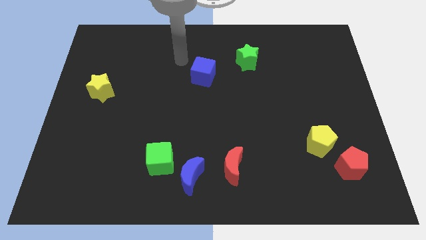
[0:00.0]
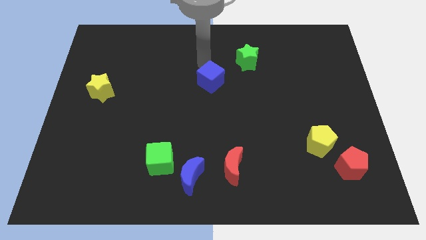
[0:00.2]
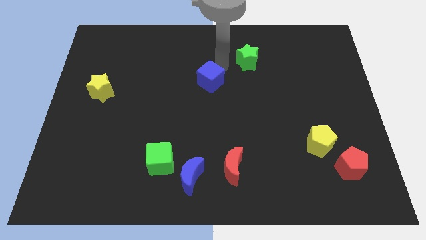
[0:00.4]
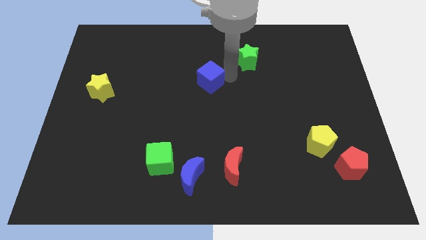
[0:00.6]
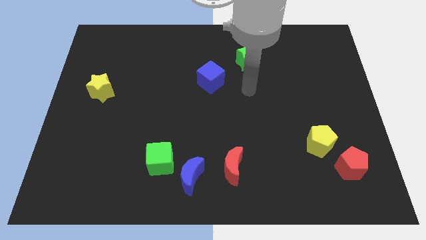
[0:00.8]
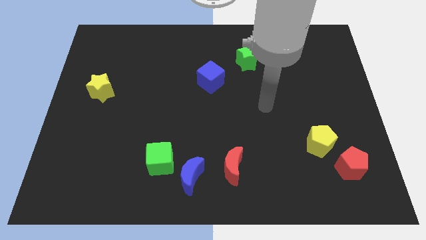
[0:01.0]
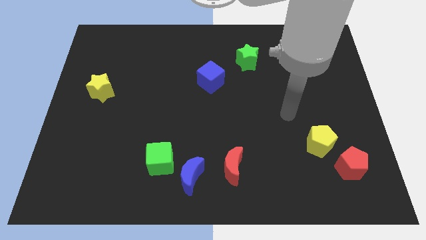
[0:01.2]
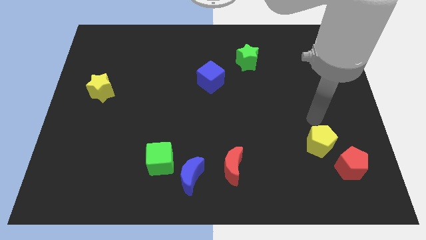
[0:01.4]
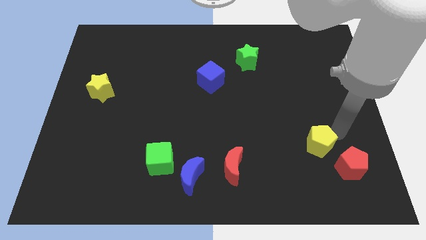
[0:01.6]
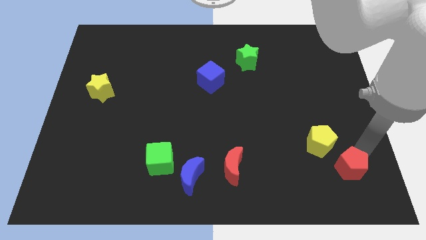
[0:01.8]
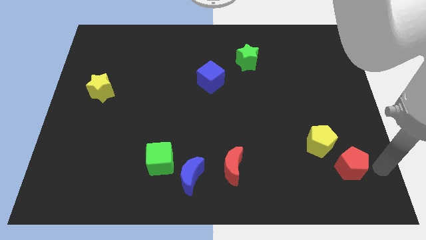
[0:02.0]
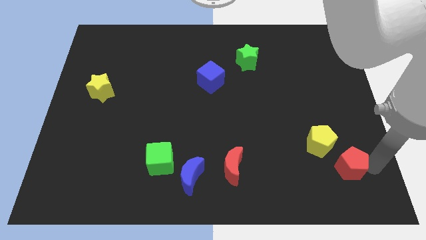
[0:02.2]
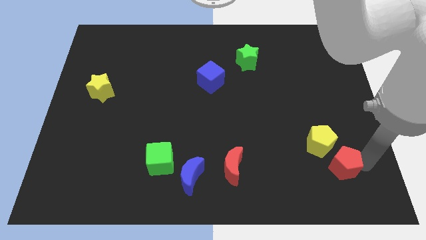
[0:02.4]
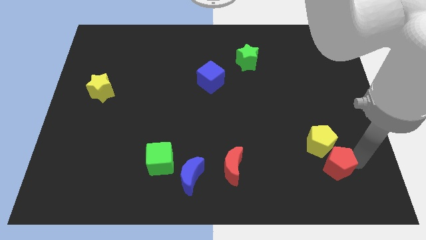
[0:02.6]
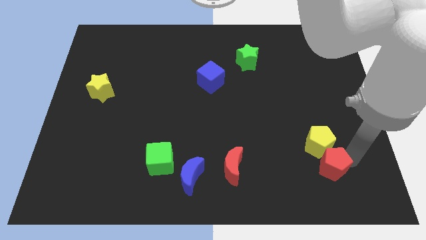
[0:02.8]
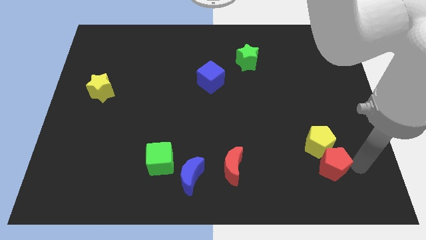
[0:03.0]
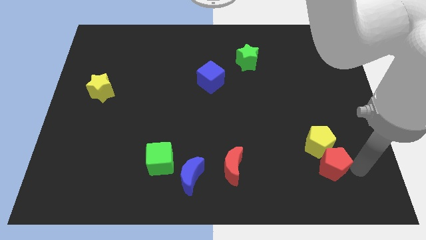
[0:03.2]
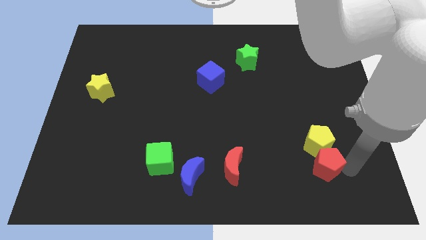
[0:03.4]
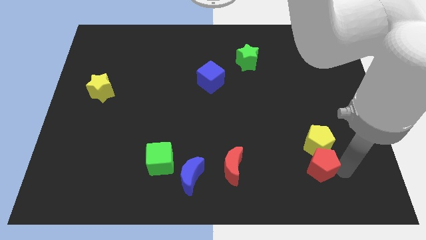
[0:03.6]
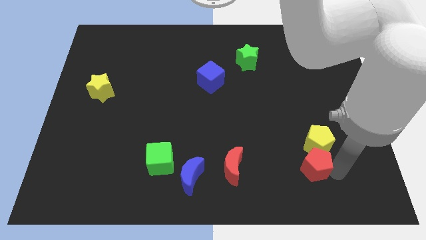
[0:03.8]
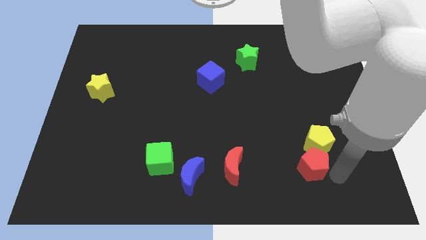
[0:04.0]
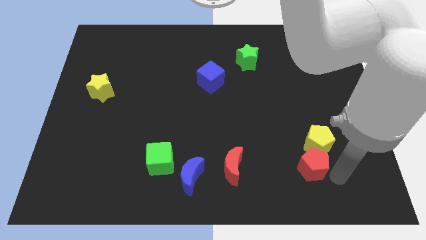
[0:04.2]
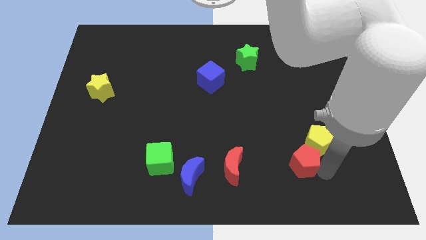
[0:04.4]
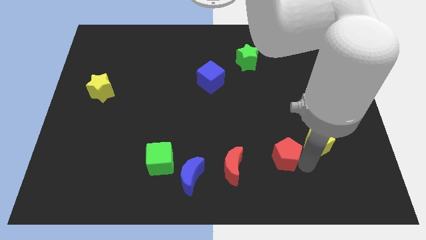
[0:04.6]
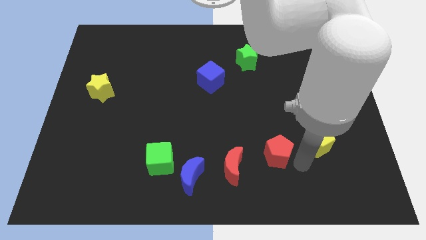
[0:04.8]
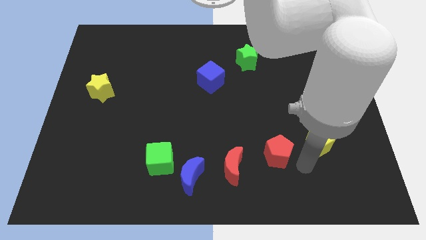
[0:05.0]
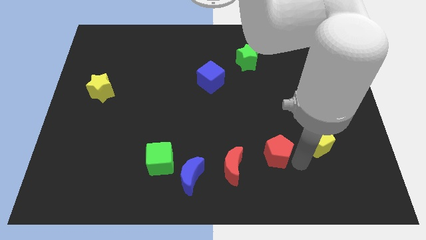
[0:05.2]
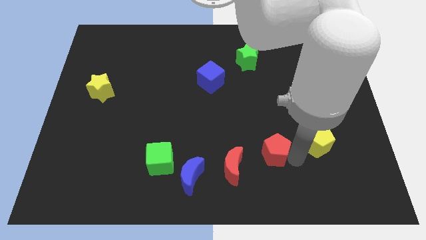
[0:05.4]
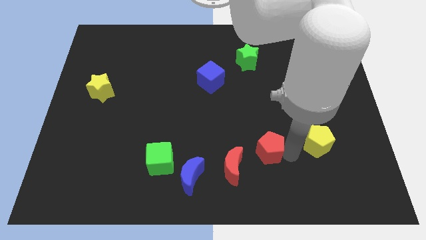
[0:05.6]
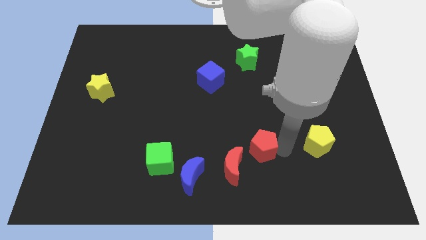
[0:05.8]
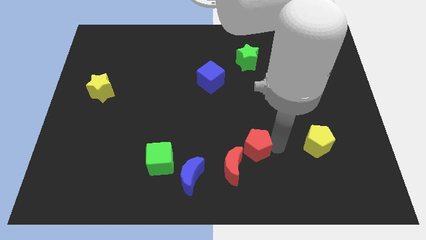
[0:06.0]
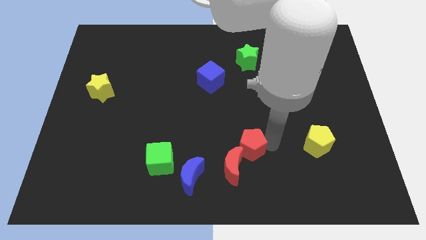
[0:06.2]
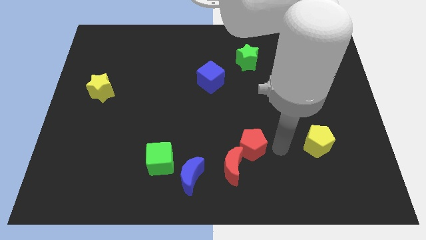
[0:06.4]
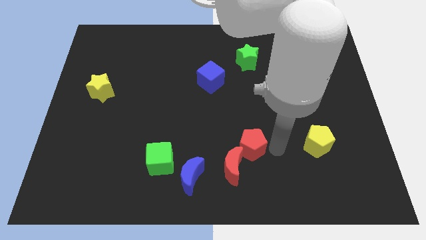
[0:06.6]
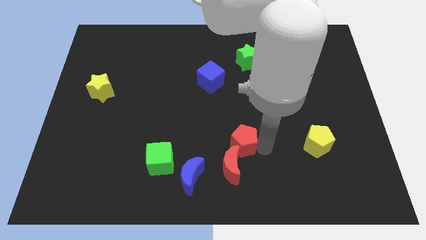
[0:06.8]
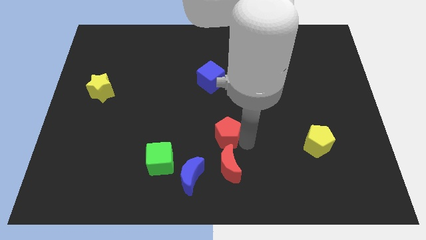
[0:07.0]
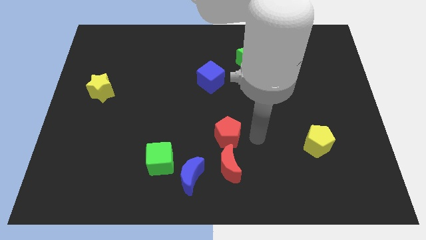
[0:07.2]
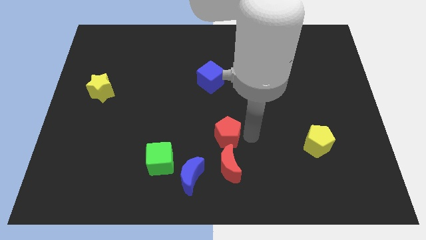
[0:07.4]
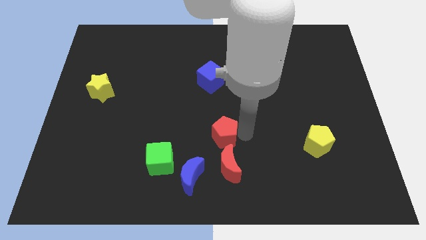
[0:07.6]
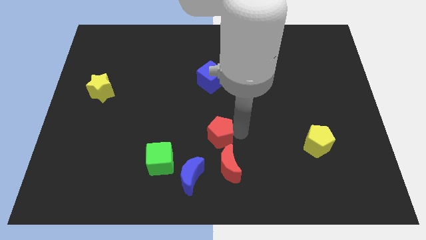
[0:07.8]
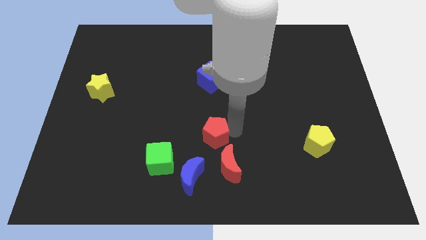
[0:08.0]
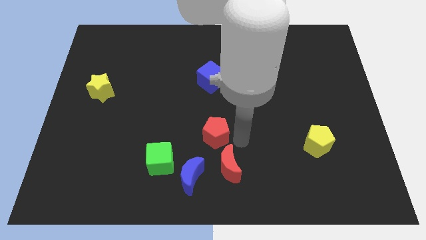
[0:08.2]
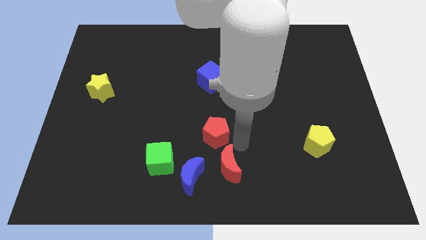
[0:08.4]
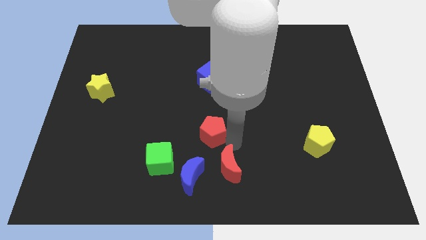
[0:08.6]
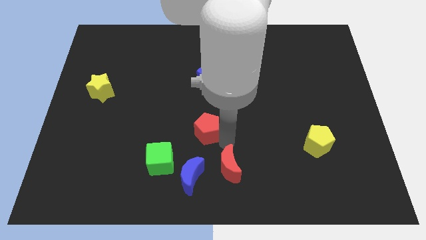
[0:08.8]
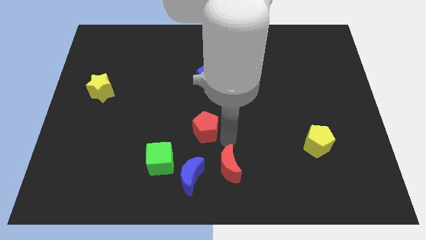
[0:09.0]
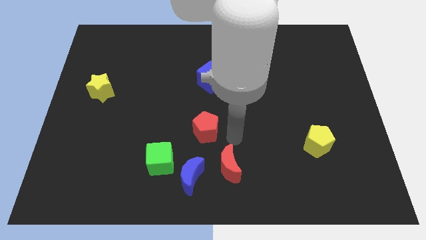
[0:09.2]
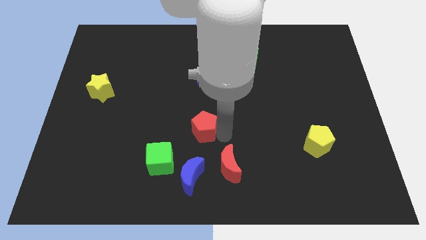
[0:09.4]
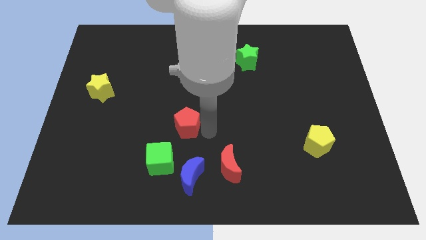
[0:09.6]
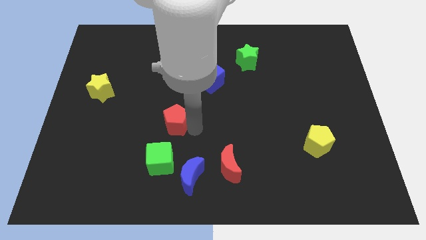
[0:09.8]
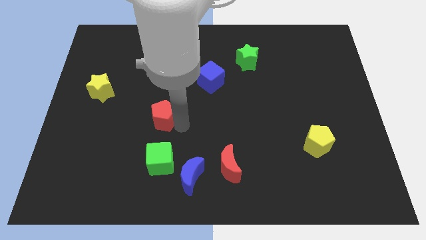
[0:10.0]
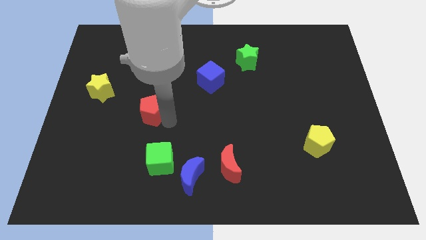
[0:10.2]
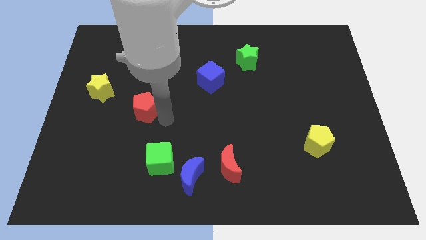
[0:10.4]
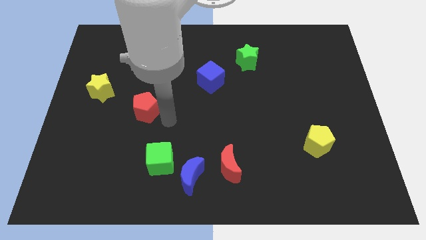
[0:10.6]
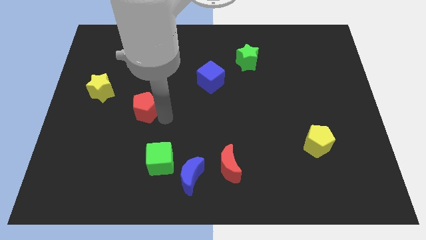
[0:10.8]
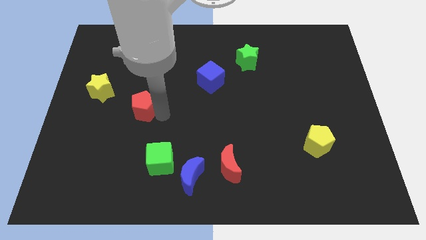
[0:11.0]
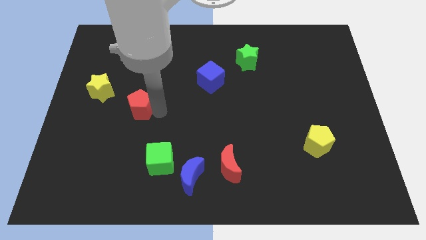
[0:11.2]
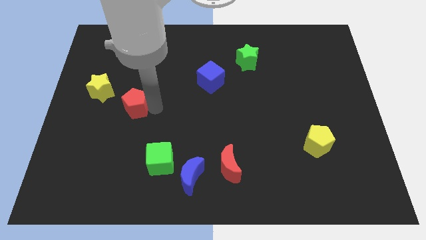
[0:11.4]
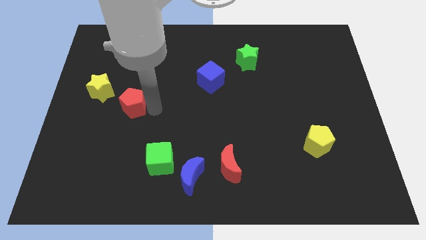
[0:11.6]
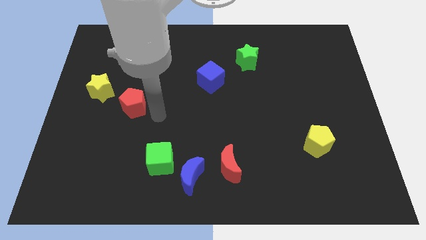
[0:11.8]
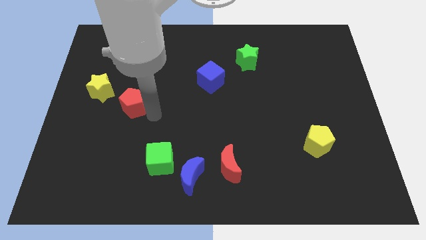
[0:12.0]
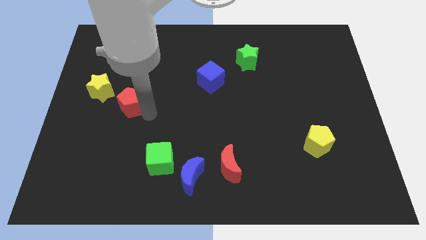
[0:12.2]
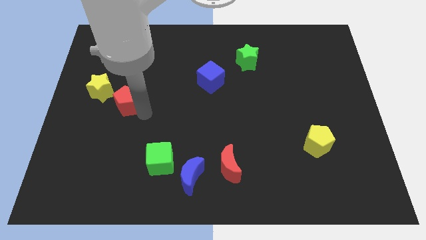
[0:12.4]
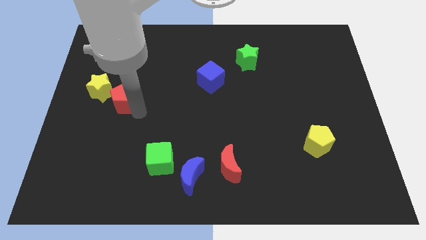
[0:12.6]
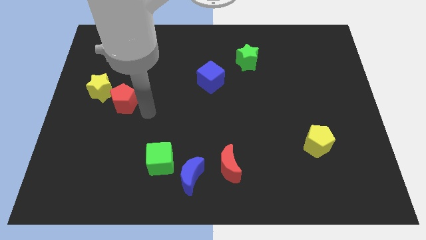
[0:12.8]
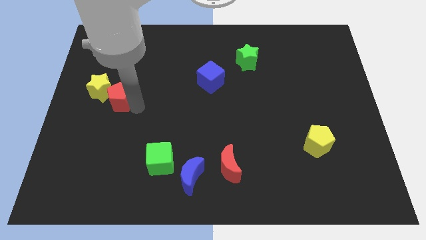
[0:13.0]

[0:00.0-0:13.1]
slide the red pentagon to the yellow star
